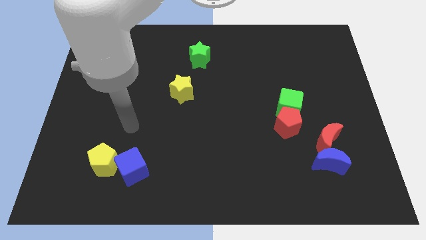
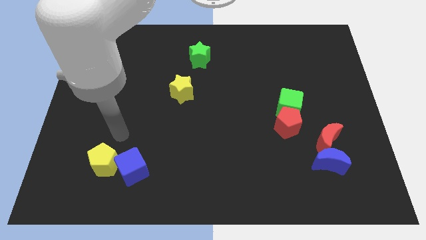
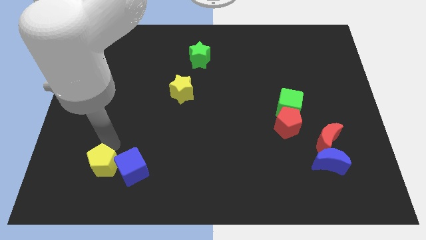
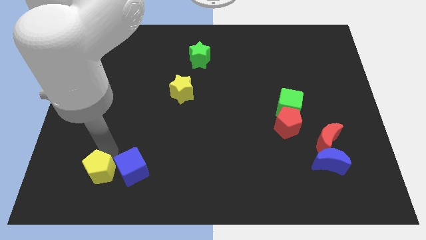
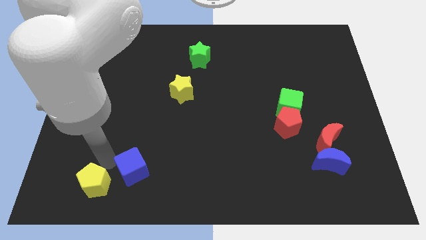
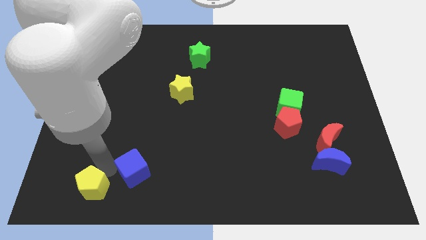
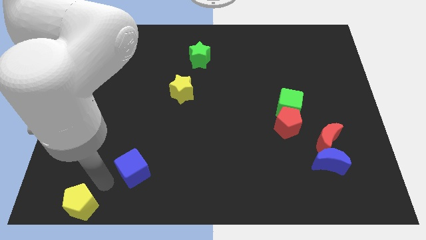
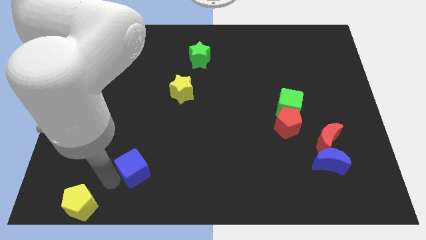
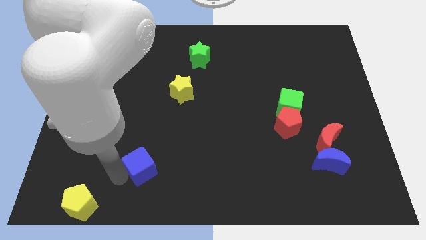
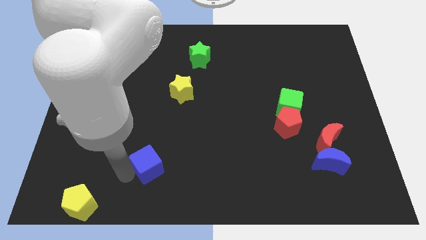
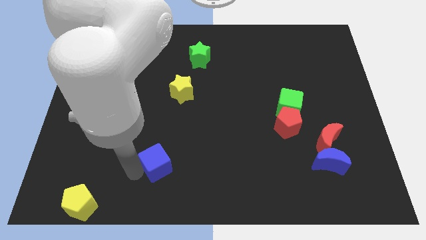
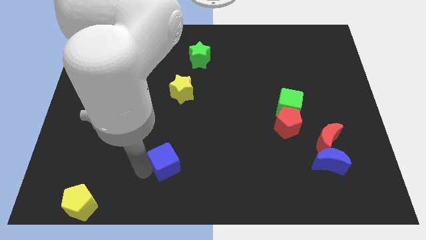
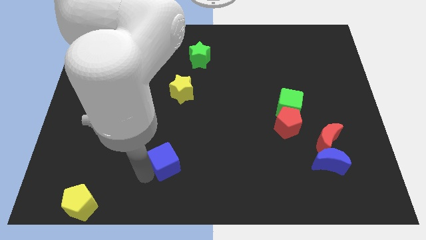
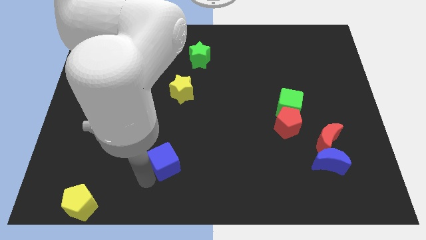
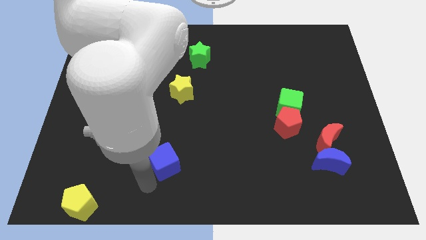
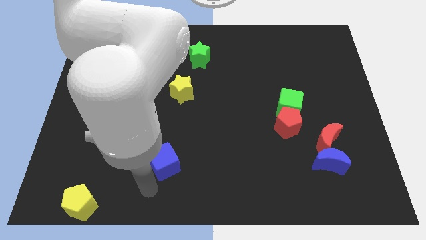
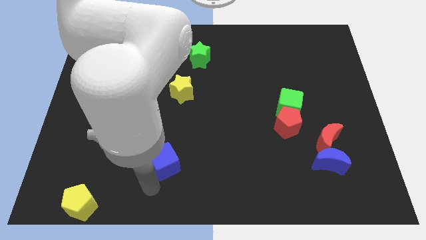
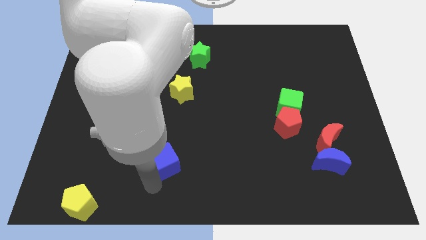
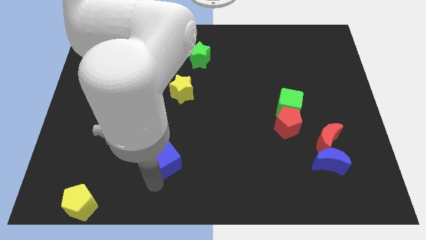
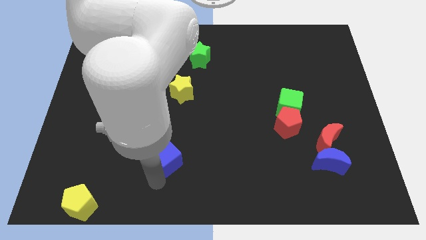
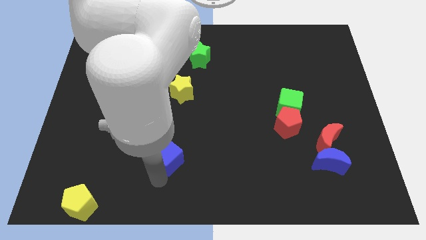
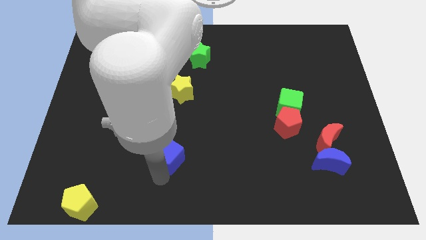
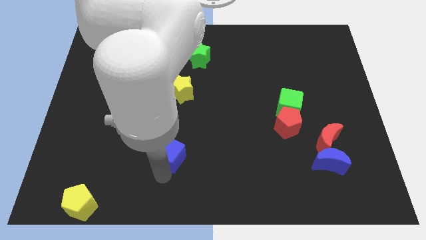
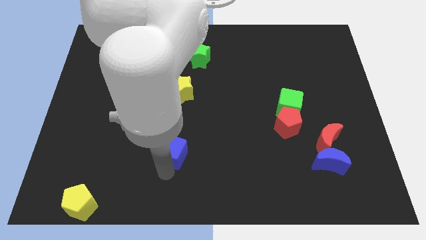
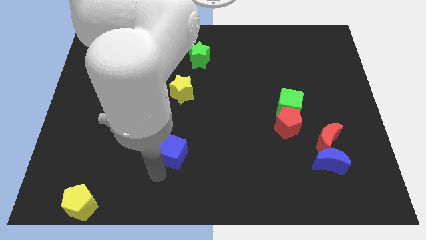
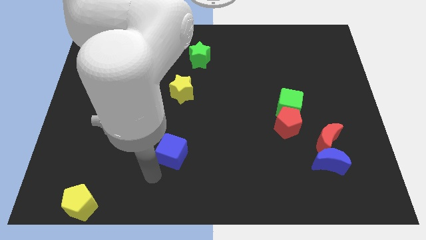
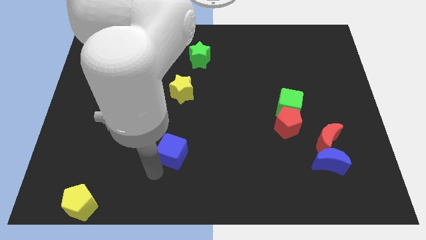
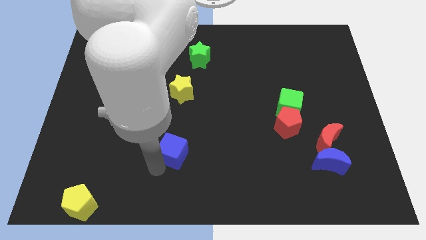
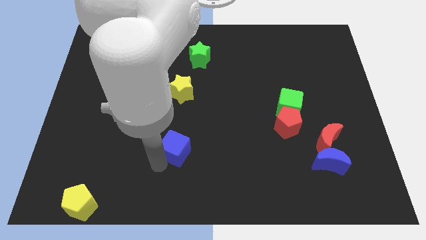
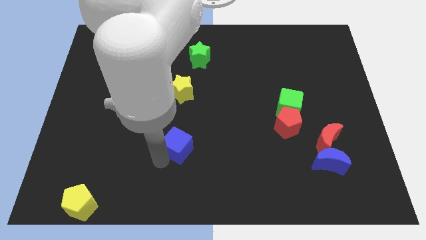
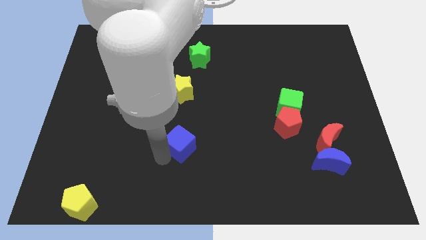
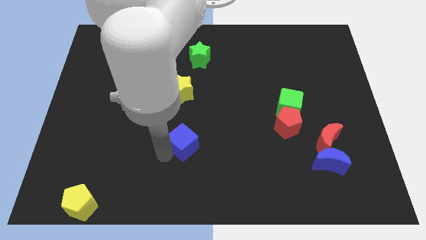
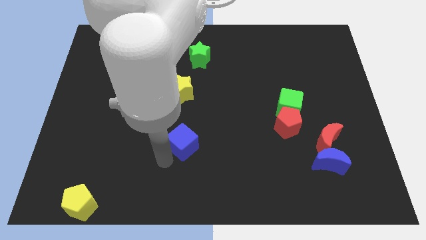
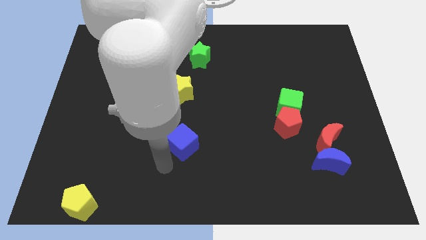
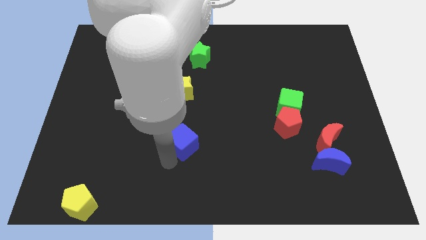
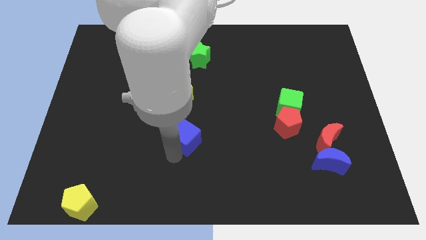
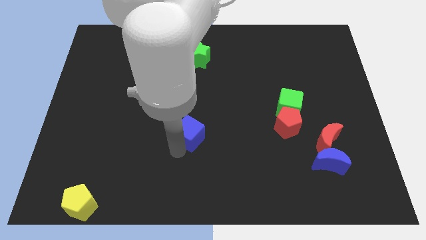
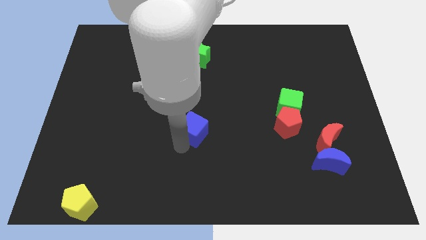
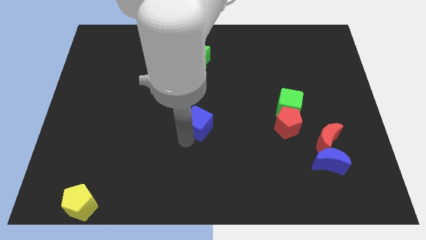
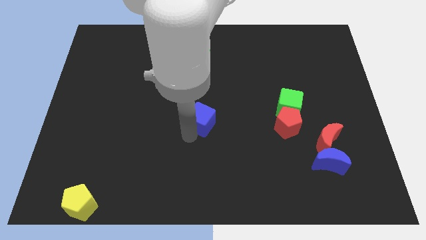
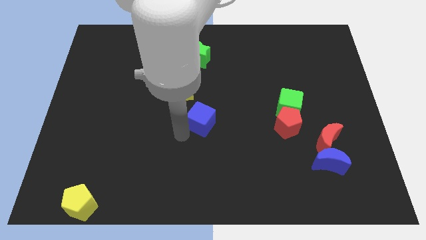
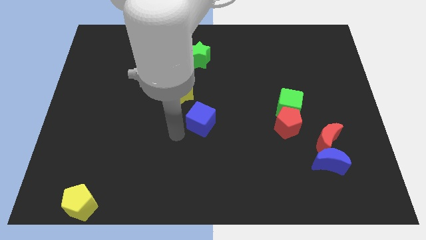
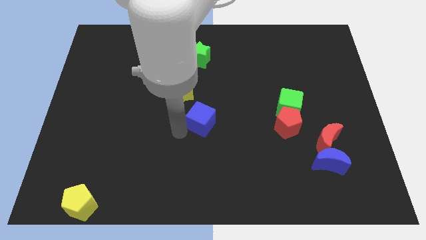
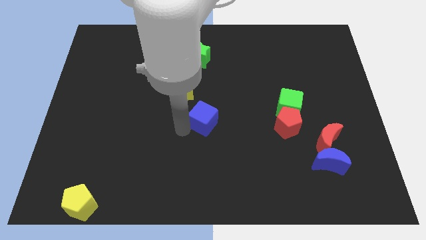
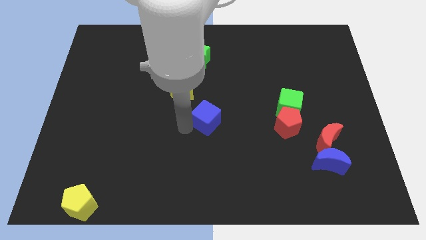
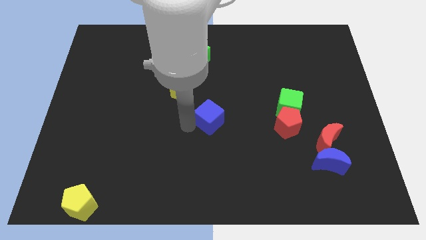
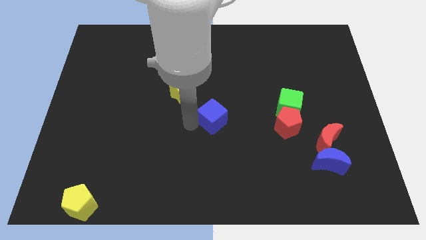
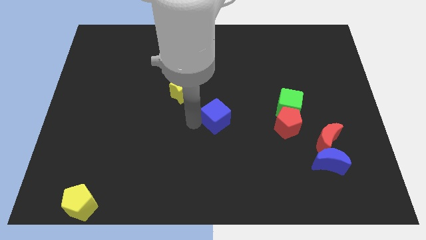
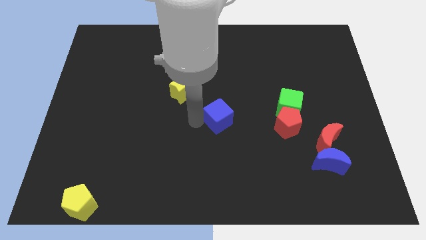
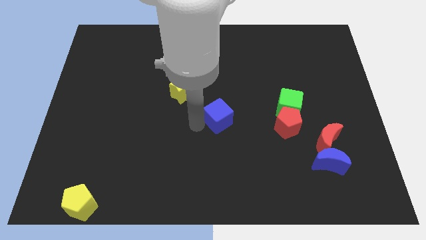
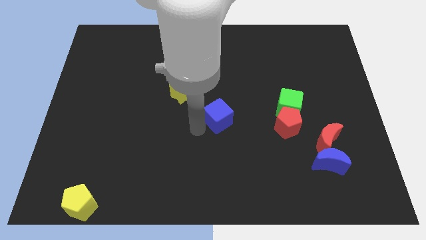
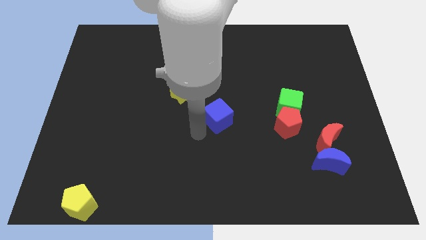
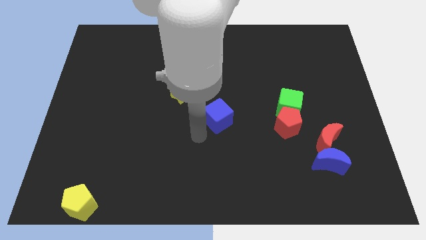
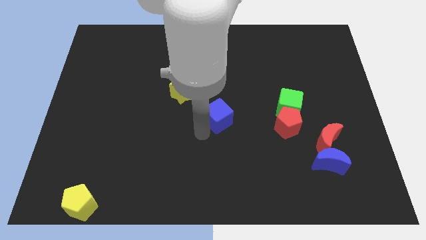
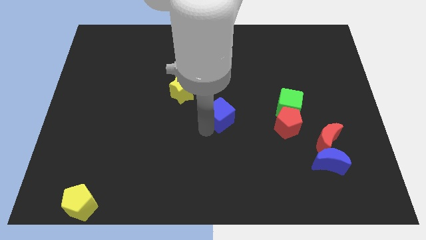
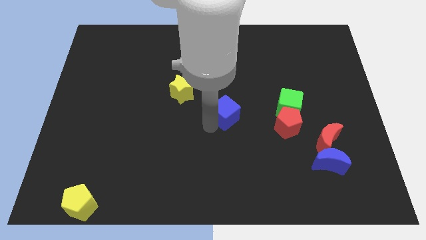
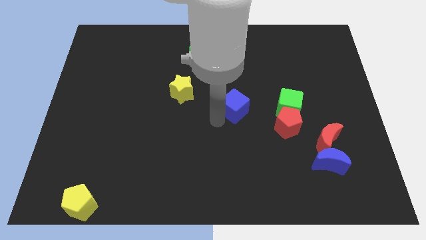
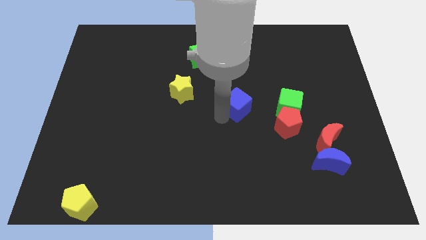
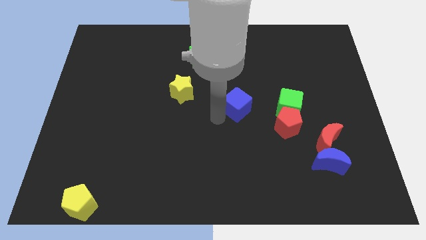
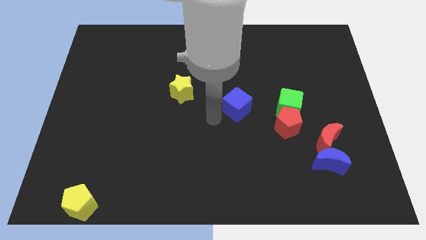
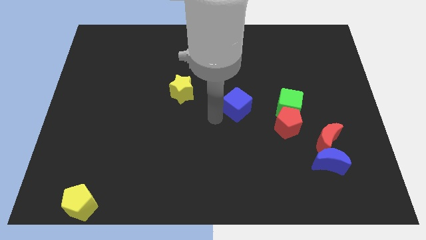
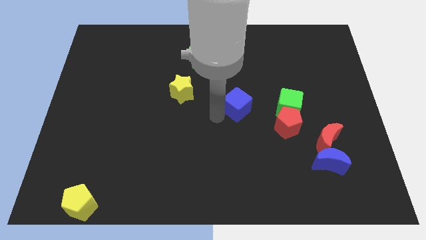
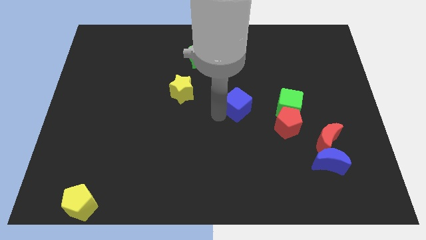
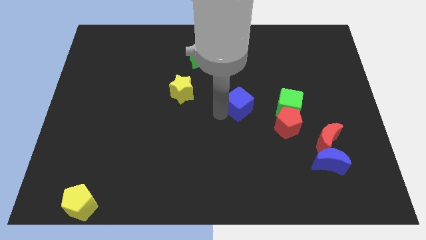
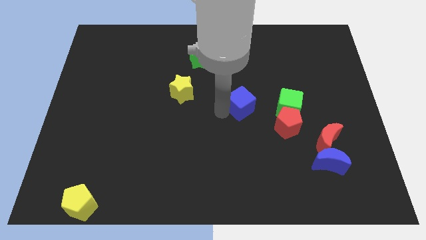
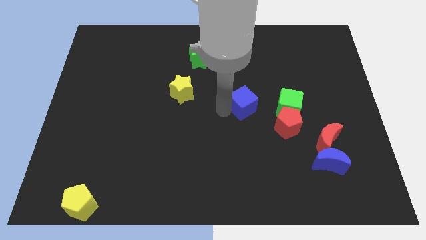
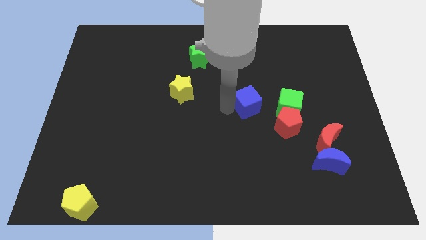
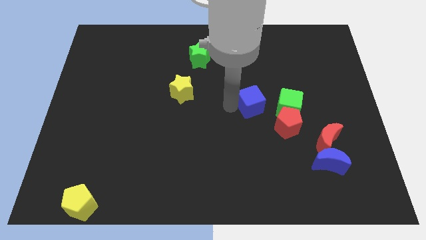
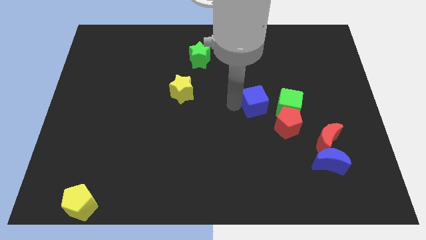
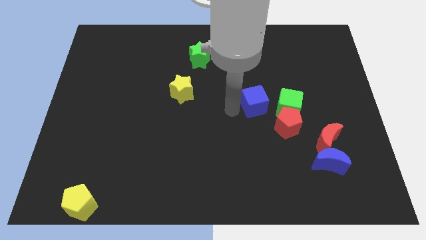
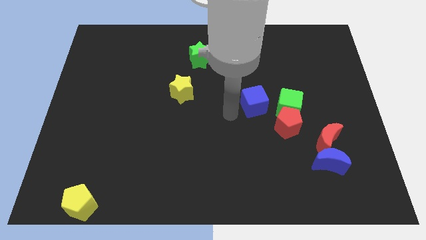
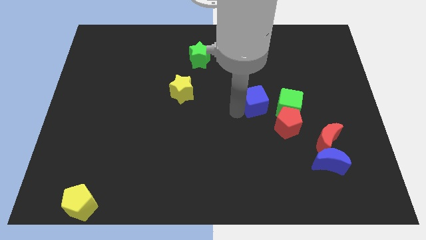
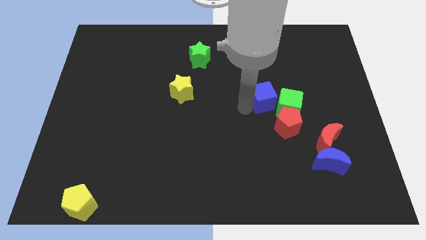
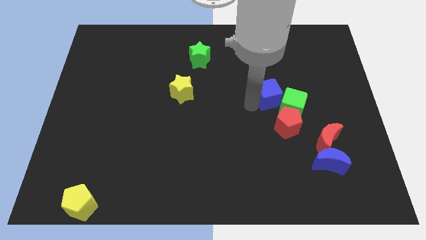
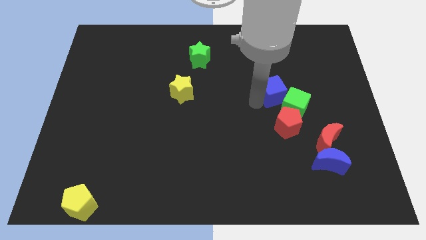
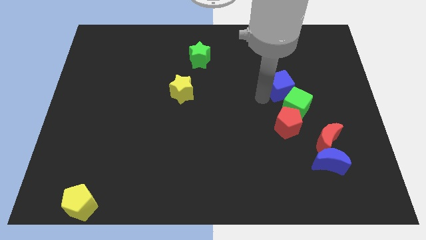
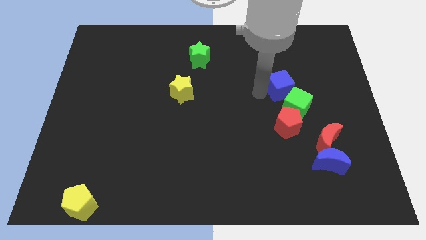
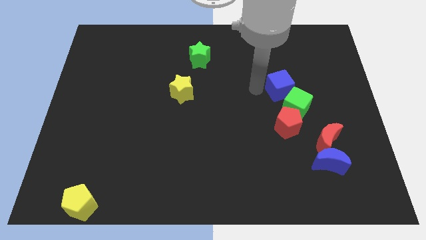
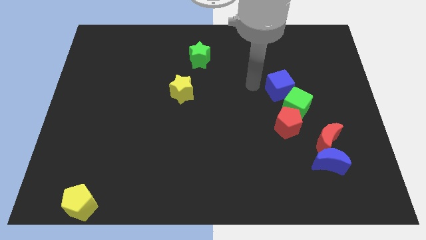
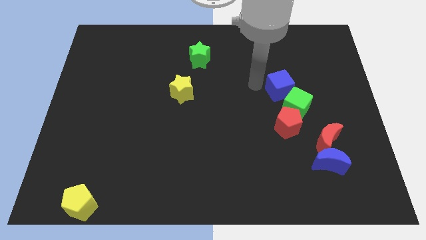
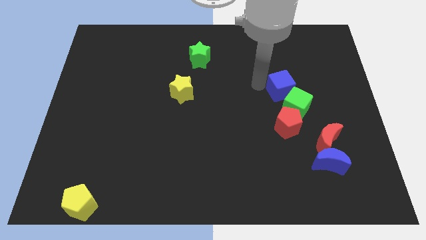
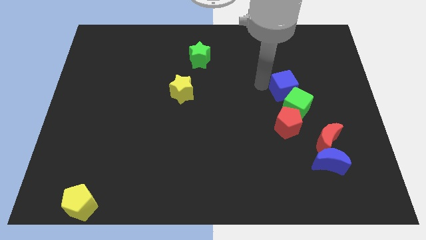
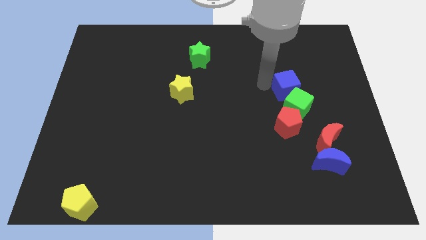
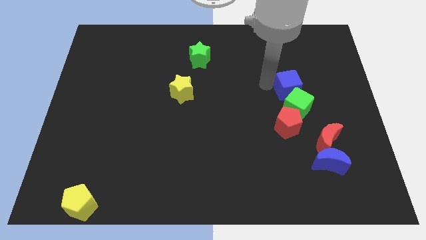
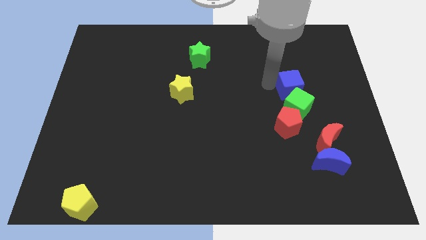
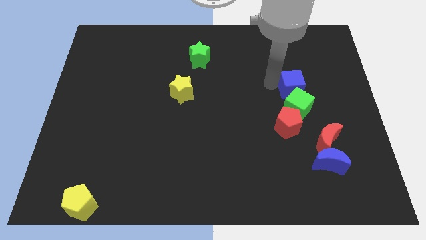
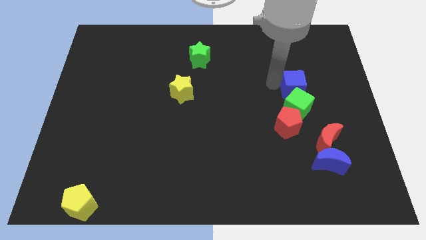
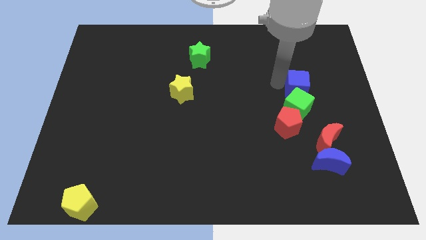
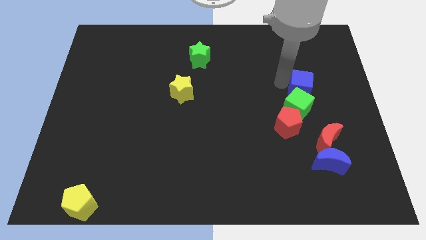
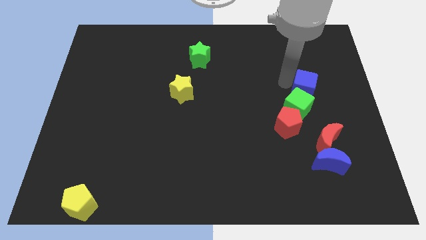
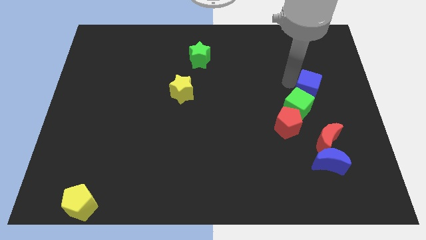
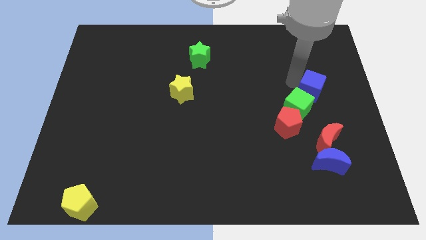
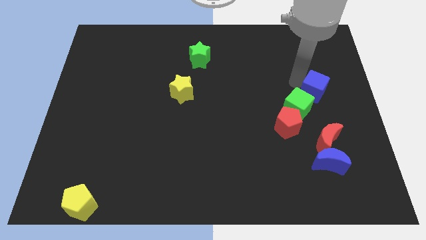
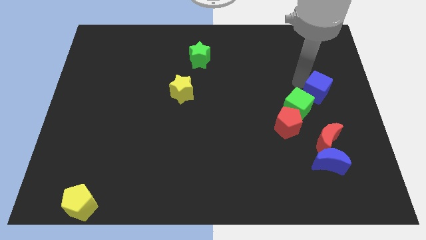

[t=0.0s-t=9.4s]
push the blue cube to the right side
